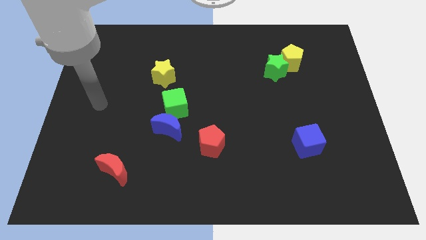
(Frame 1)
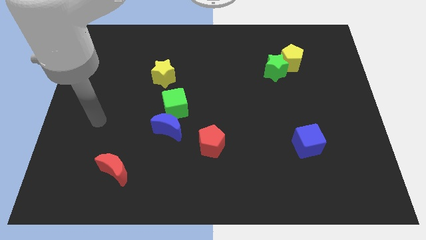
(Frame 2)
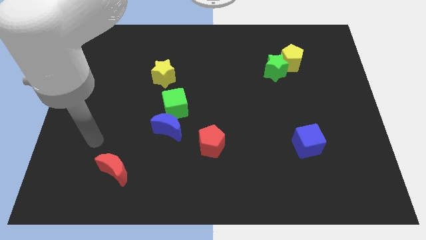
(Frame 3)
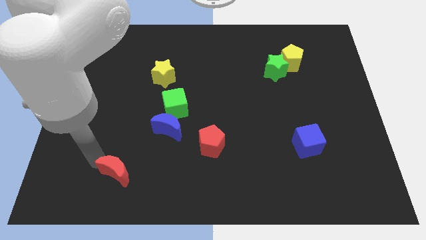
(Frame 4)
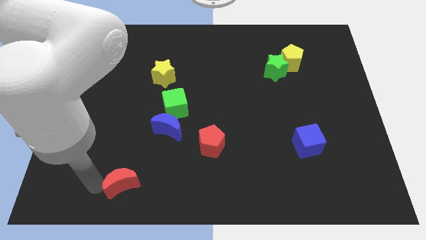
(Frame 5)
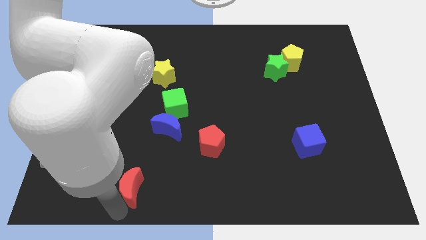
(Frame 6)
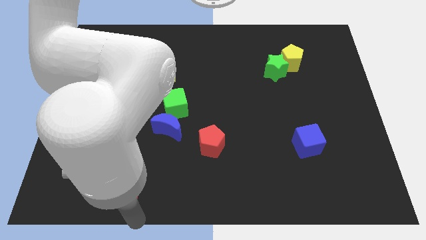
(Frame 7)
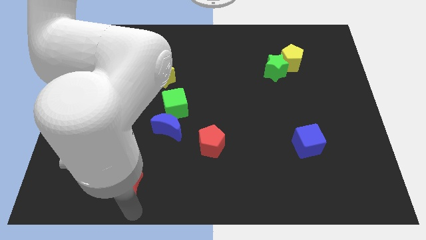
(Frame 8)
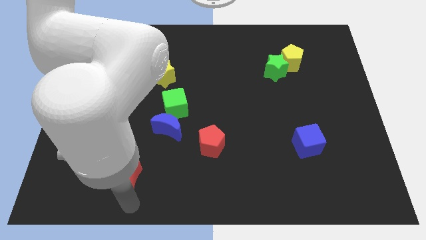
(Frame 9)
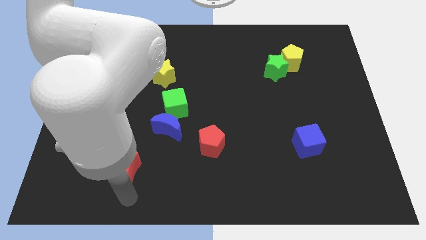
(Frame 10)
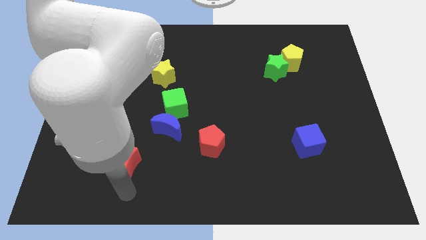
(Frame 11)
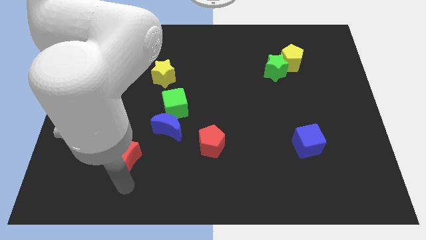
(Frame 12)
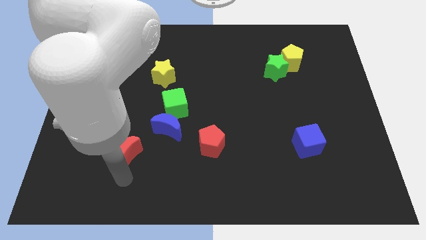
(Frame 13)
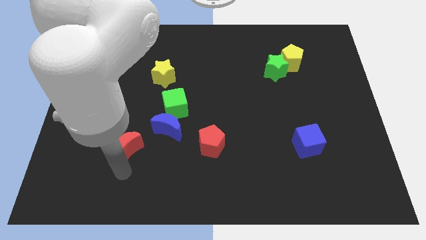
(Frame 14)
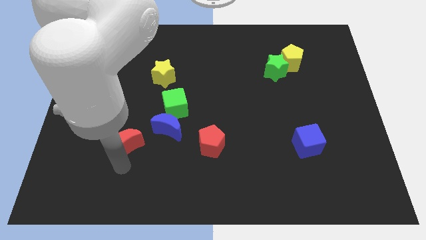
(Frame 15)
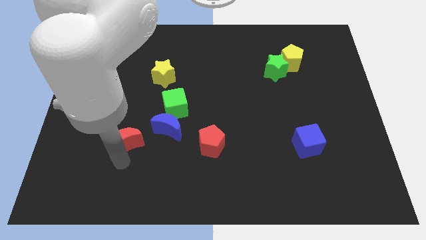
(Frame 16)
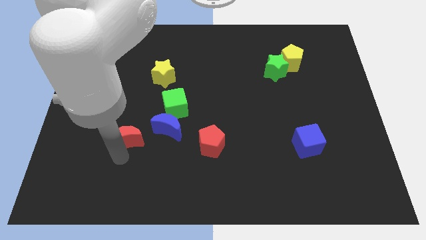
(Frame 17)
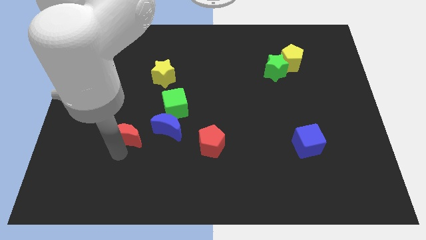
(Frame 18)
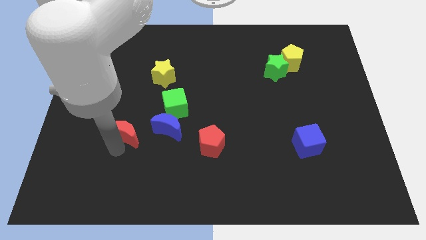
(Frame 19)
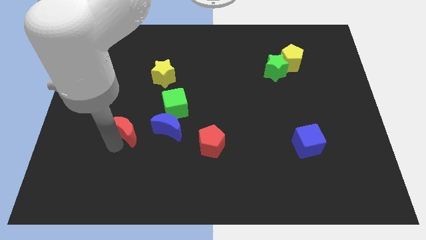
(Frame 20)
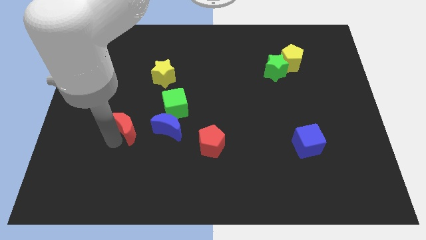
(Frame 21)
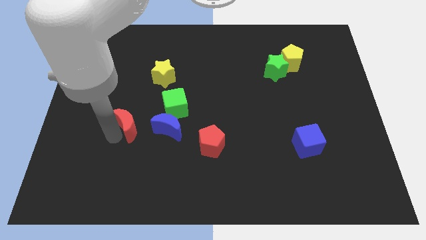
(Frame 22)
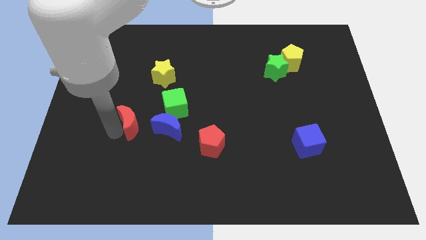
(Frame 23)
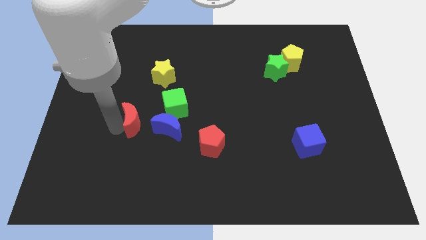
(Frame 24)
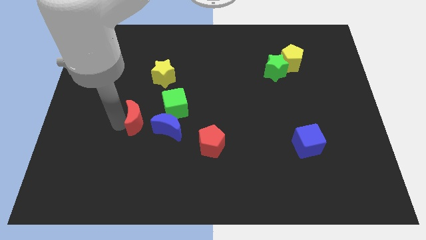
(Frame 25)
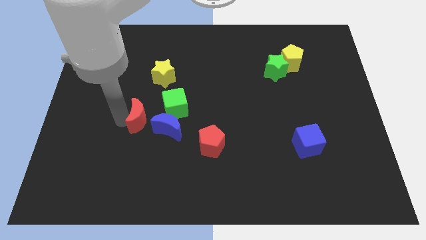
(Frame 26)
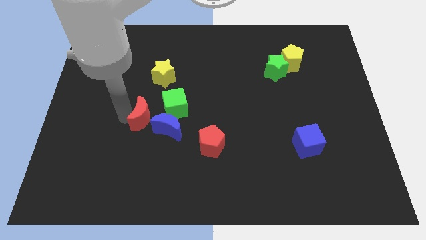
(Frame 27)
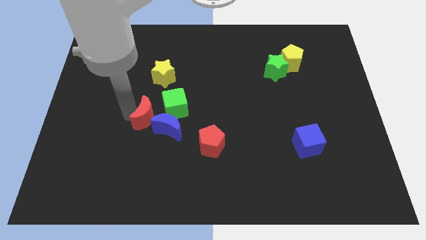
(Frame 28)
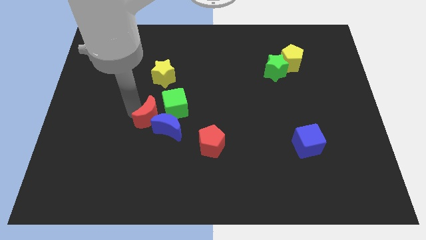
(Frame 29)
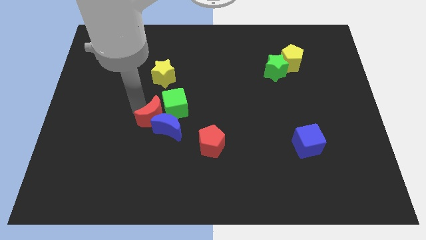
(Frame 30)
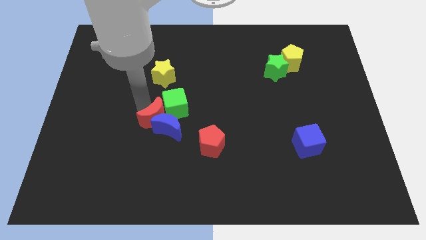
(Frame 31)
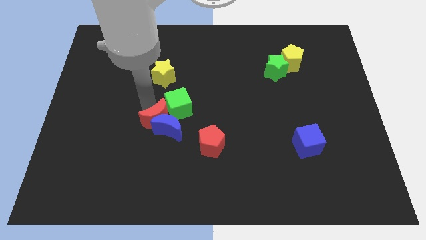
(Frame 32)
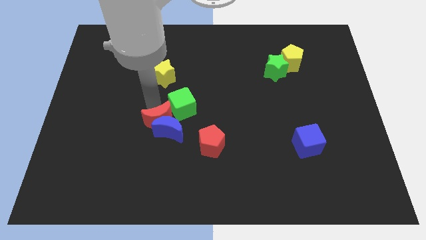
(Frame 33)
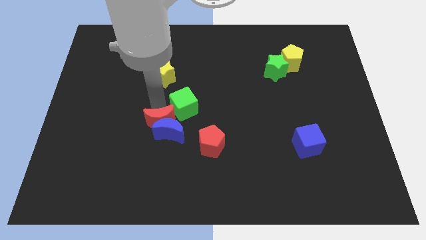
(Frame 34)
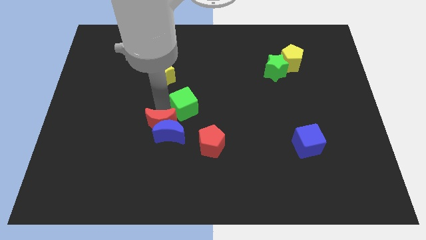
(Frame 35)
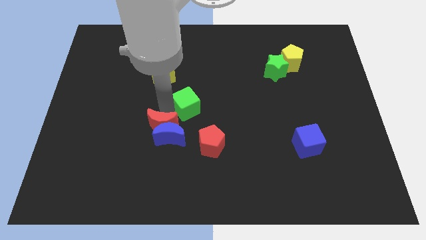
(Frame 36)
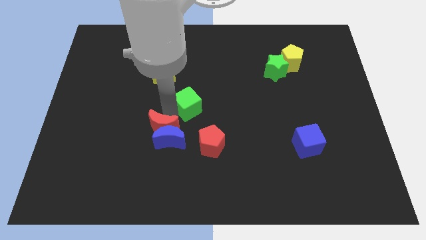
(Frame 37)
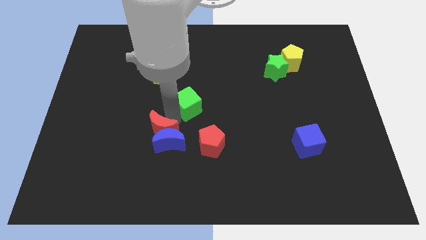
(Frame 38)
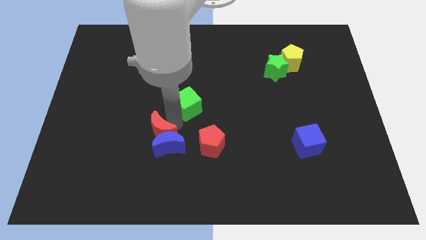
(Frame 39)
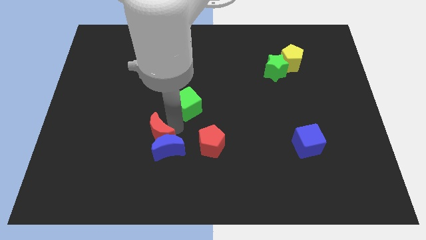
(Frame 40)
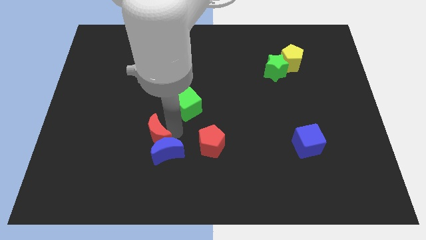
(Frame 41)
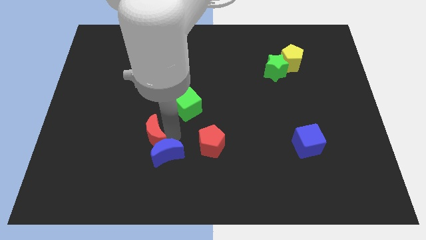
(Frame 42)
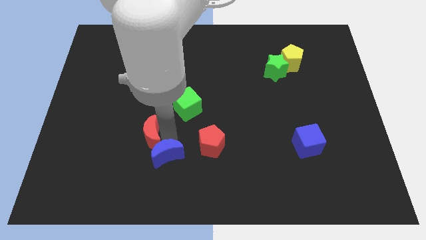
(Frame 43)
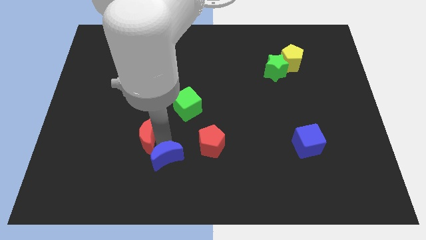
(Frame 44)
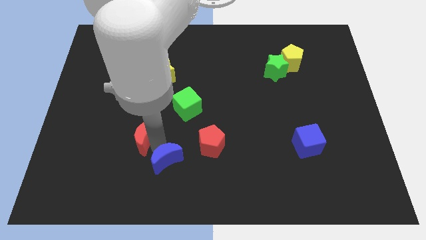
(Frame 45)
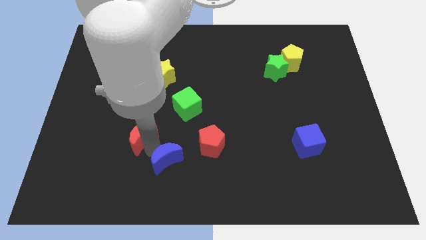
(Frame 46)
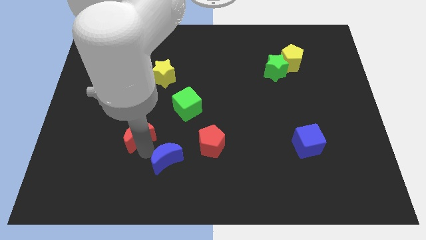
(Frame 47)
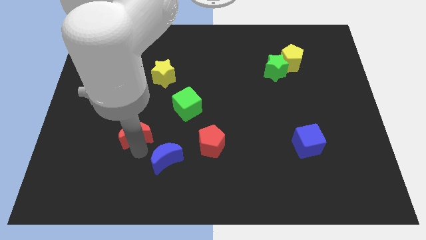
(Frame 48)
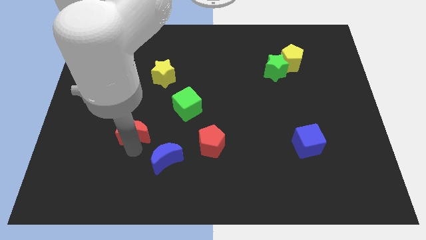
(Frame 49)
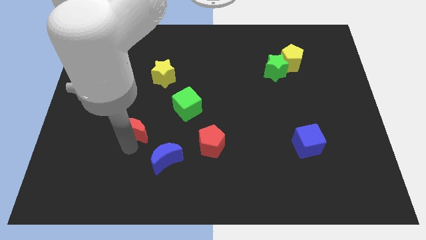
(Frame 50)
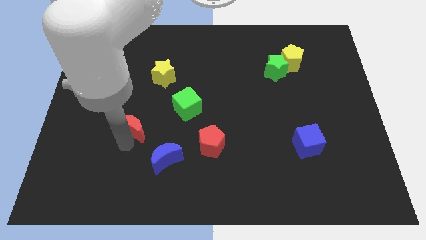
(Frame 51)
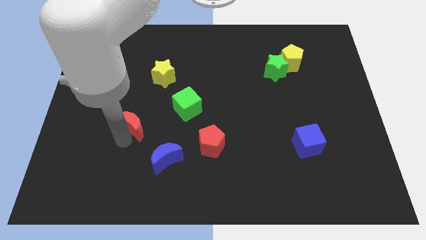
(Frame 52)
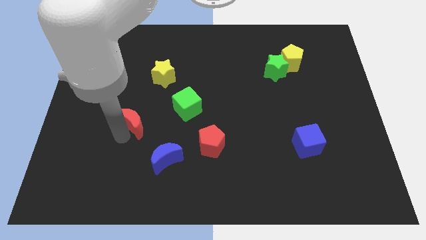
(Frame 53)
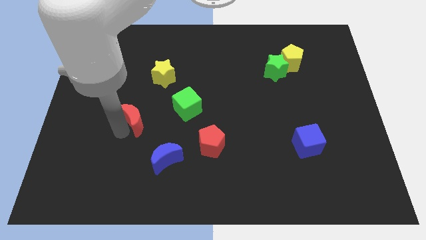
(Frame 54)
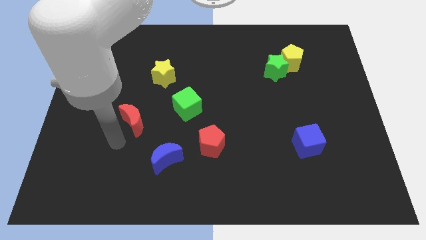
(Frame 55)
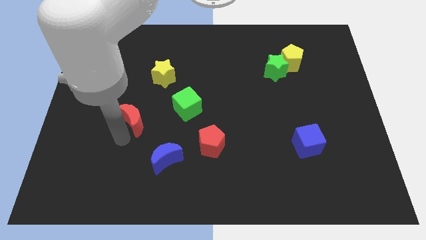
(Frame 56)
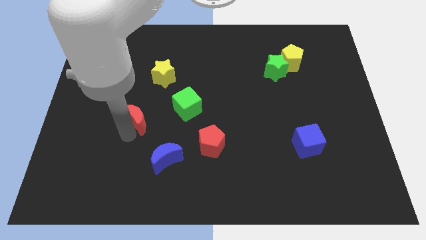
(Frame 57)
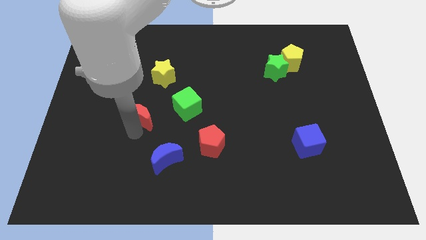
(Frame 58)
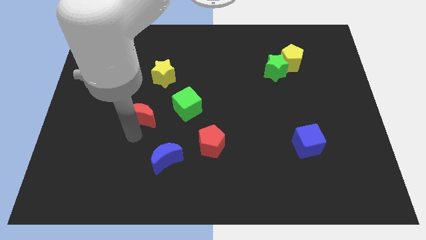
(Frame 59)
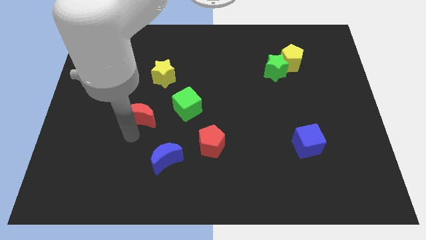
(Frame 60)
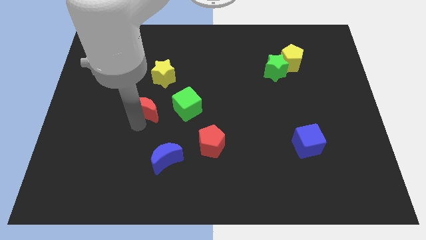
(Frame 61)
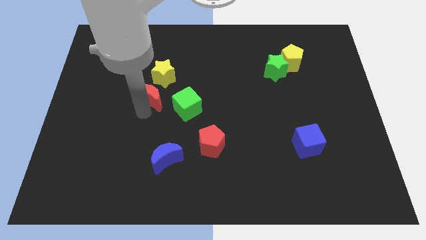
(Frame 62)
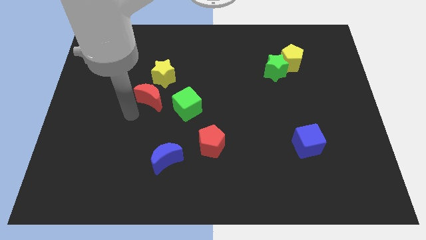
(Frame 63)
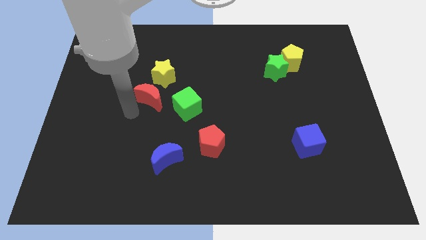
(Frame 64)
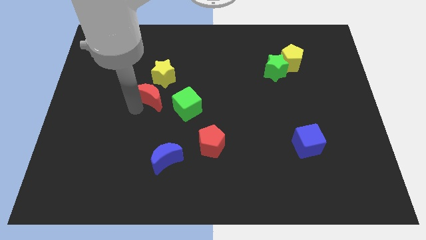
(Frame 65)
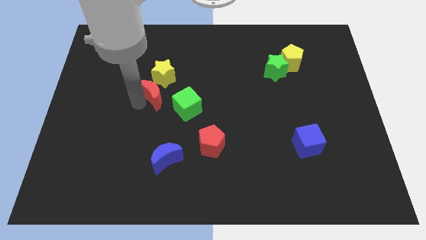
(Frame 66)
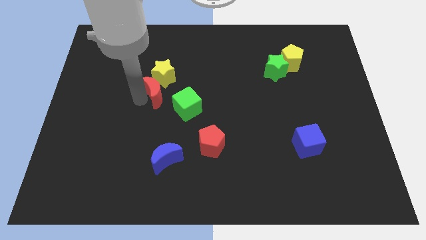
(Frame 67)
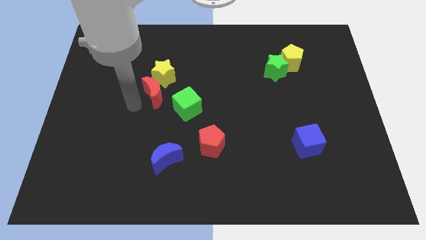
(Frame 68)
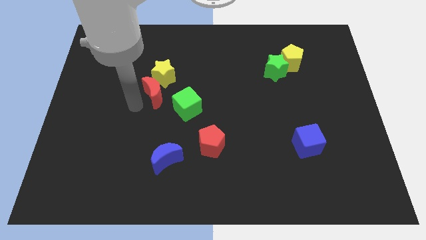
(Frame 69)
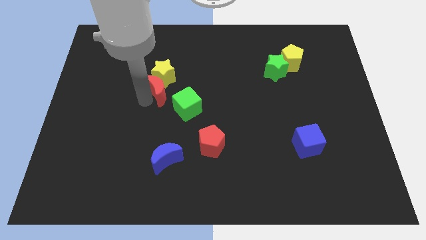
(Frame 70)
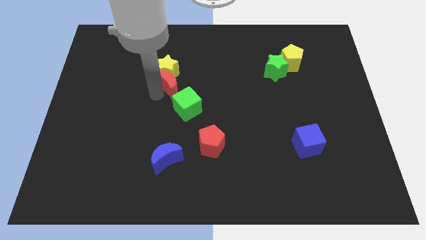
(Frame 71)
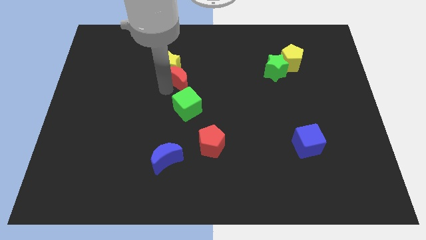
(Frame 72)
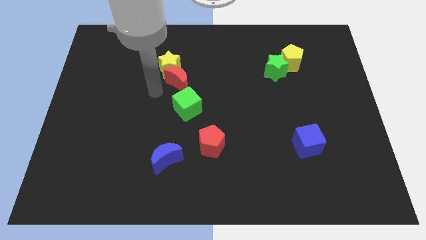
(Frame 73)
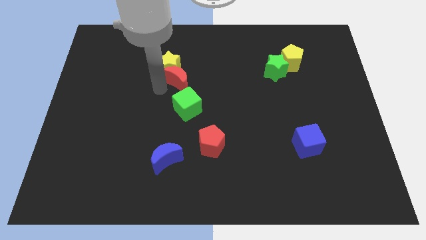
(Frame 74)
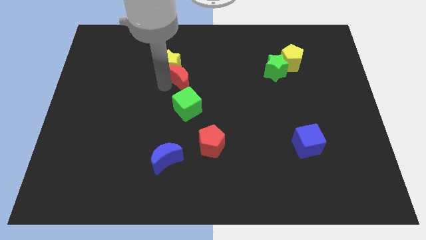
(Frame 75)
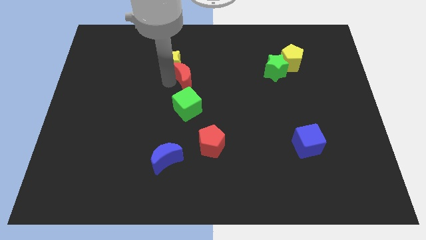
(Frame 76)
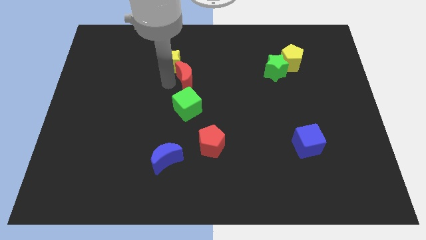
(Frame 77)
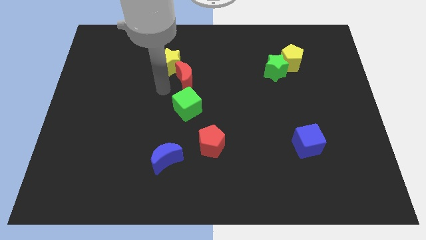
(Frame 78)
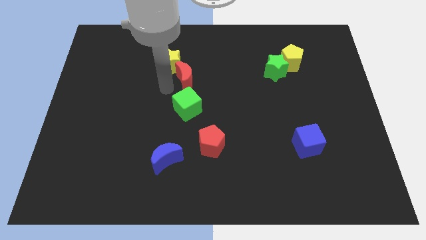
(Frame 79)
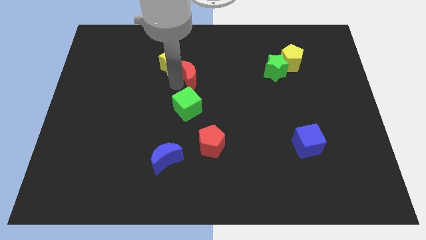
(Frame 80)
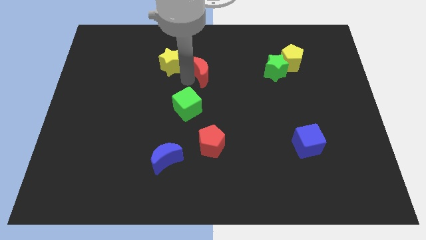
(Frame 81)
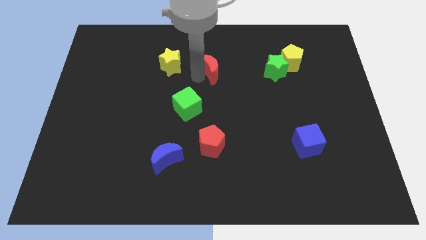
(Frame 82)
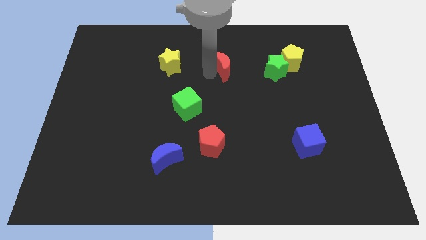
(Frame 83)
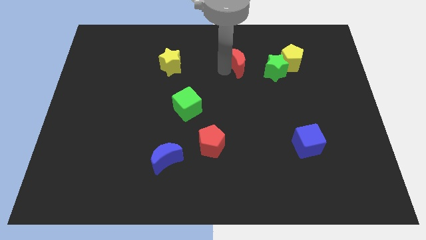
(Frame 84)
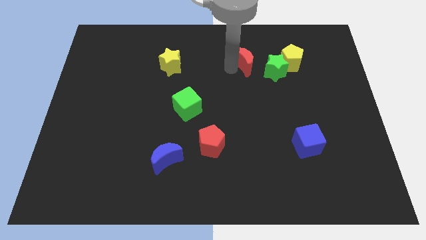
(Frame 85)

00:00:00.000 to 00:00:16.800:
move the red moon diagonally up and to the left of the green star
